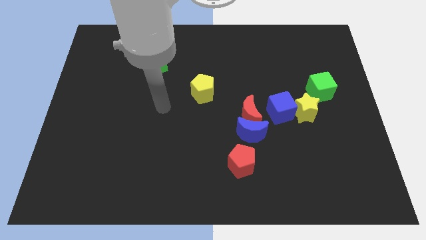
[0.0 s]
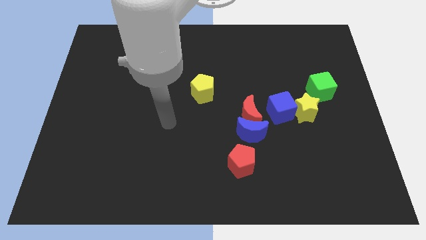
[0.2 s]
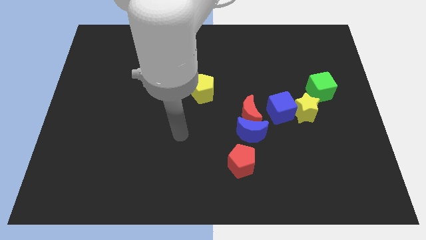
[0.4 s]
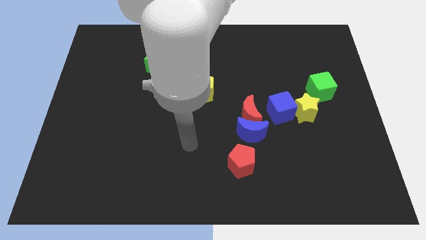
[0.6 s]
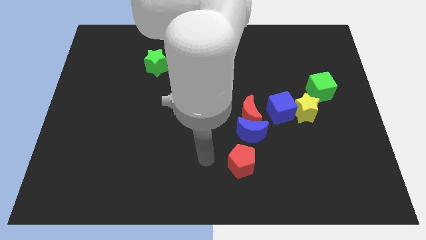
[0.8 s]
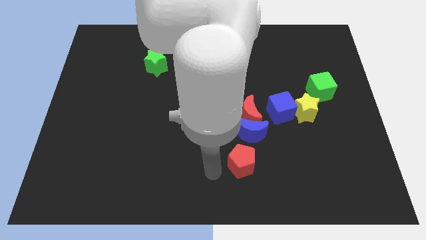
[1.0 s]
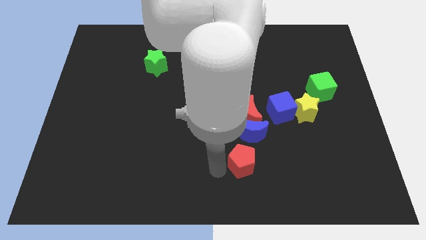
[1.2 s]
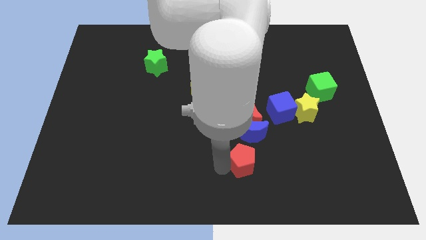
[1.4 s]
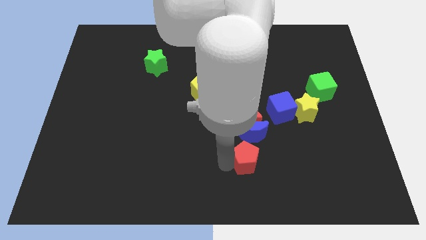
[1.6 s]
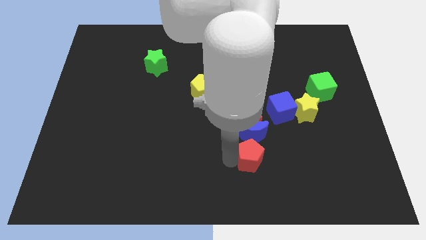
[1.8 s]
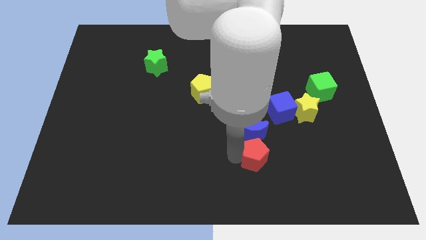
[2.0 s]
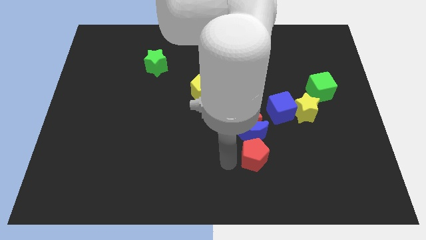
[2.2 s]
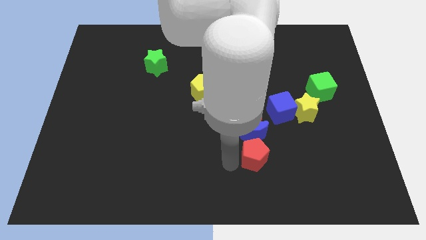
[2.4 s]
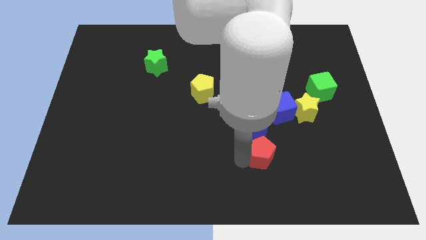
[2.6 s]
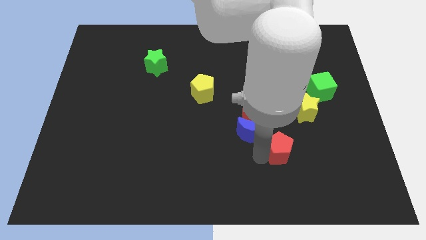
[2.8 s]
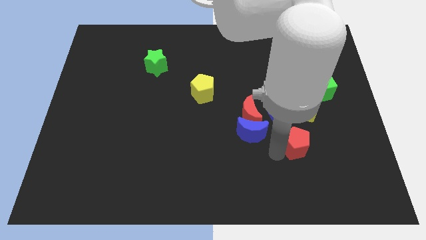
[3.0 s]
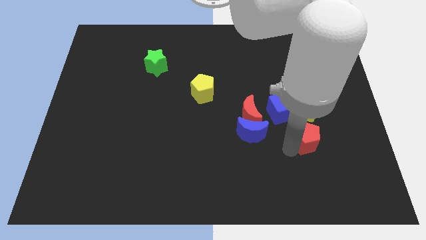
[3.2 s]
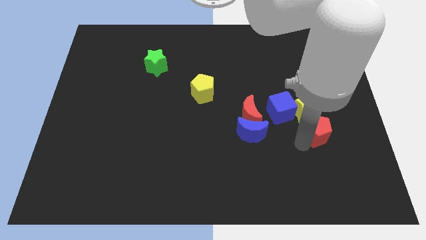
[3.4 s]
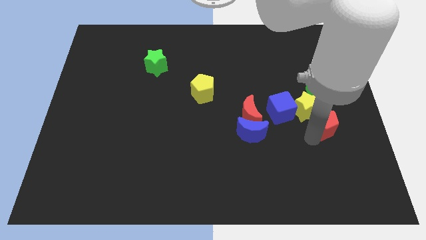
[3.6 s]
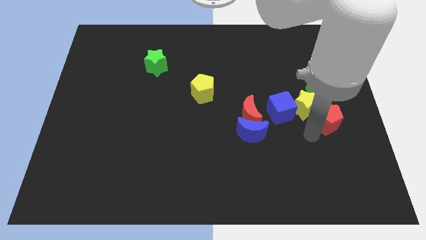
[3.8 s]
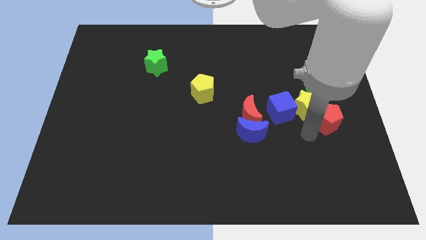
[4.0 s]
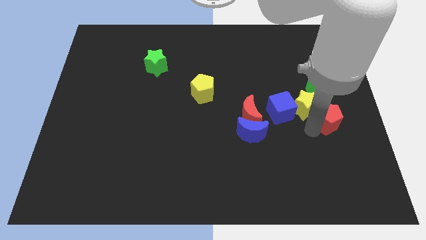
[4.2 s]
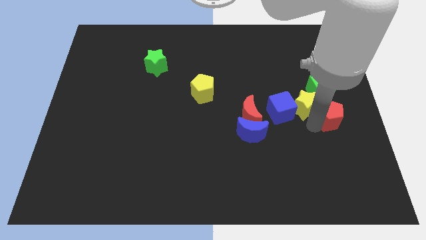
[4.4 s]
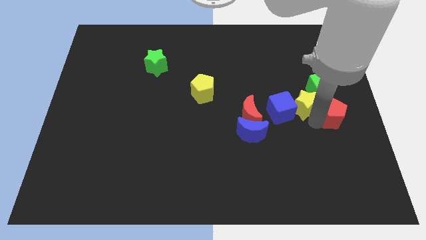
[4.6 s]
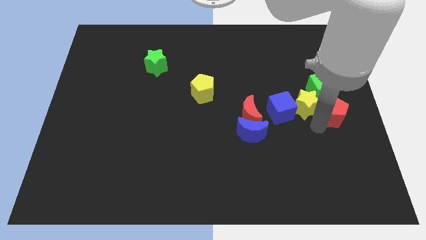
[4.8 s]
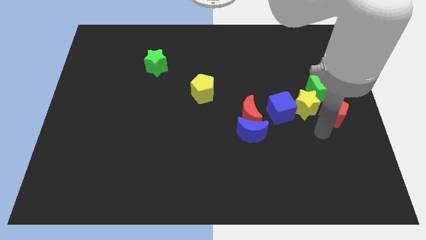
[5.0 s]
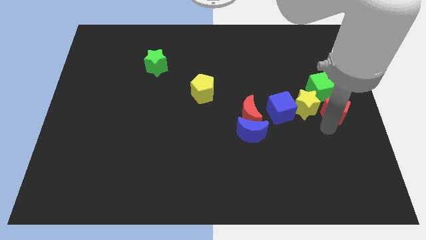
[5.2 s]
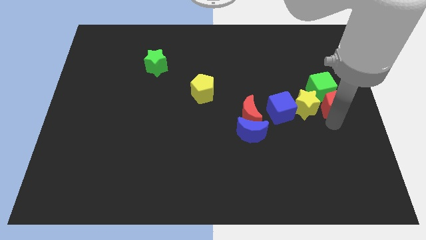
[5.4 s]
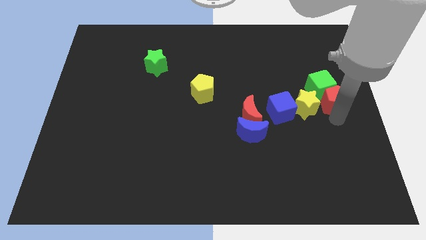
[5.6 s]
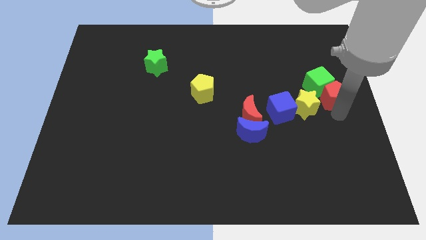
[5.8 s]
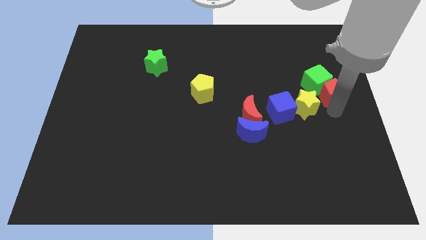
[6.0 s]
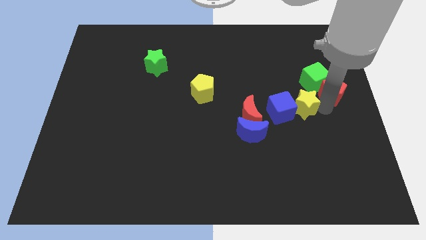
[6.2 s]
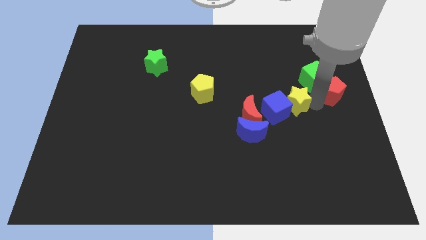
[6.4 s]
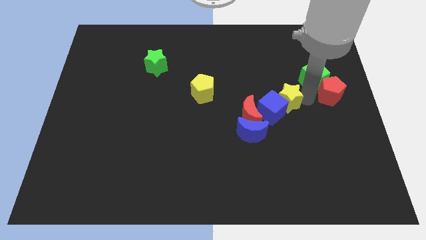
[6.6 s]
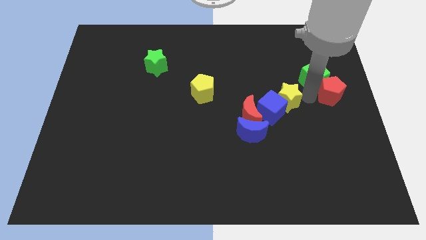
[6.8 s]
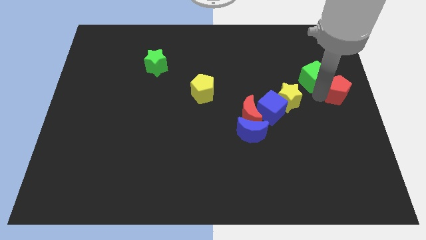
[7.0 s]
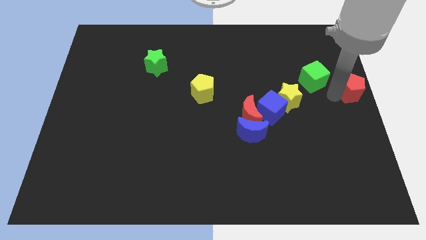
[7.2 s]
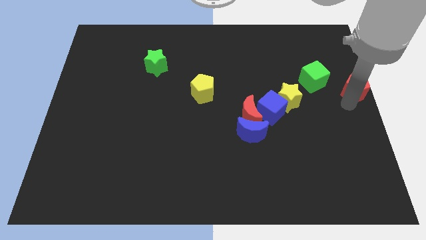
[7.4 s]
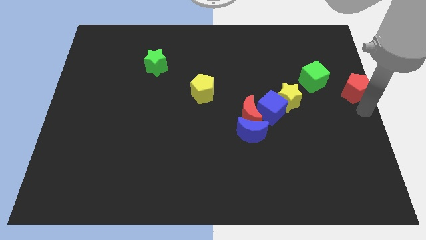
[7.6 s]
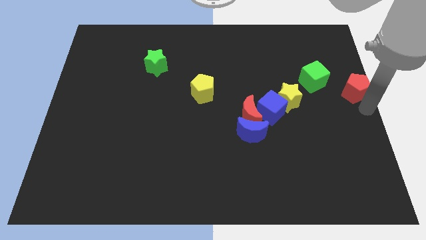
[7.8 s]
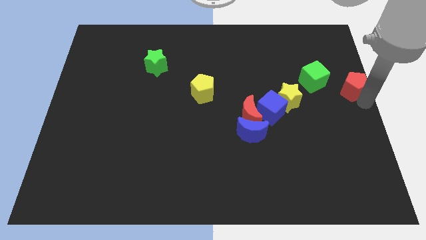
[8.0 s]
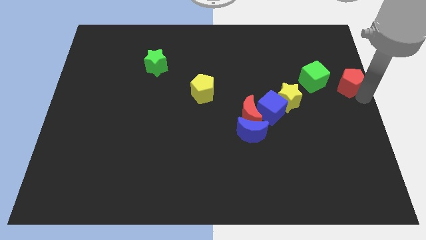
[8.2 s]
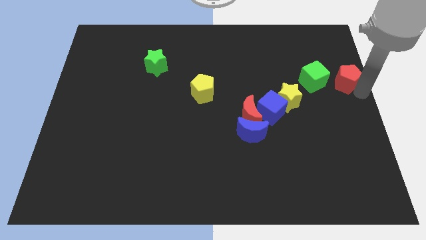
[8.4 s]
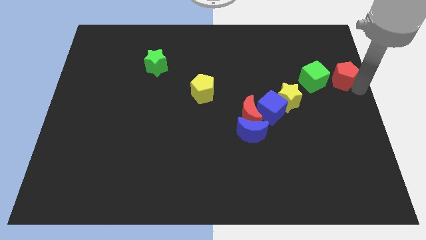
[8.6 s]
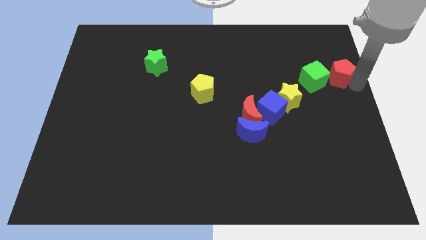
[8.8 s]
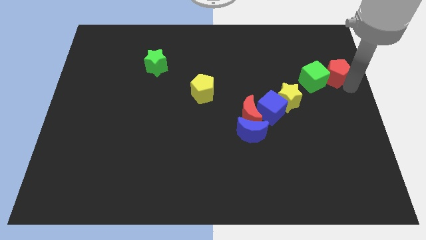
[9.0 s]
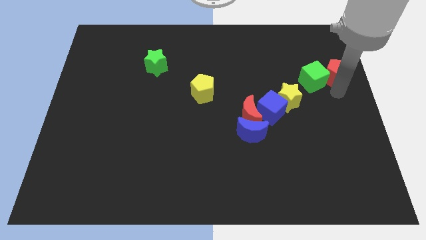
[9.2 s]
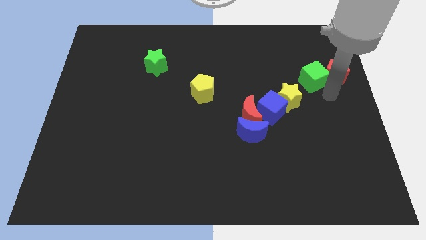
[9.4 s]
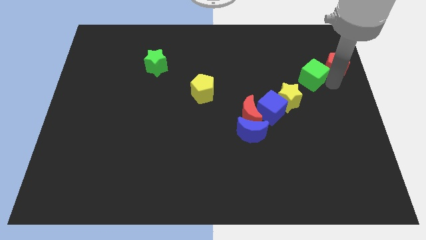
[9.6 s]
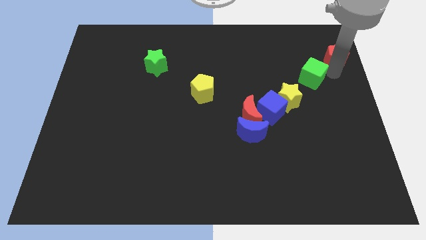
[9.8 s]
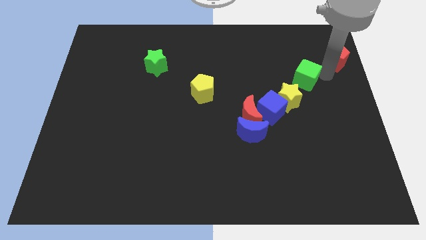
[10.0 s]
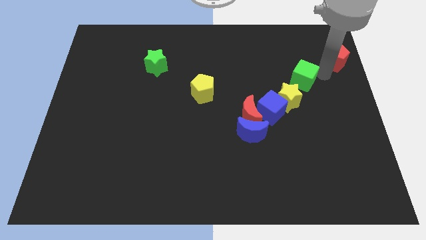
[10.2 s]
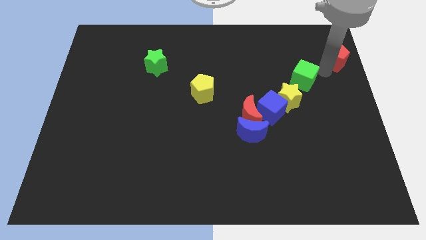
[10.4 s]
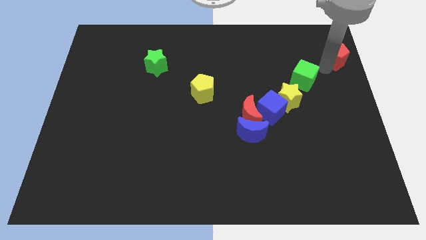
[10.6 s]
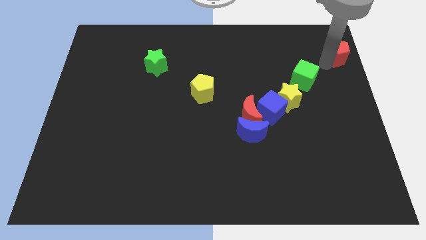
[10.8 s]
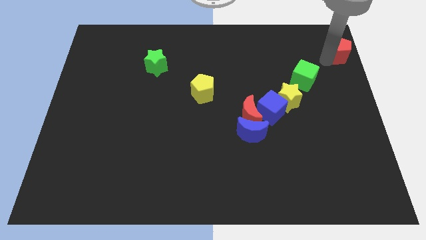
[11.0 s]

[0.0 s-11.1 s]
push the red pentagon to the top right corner

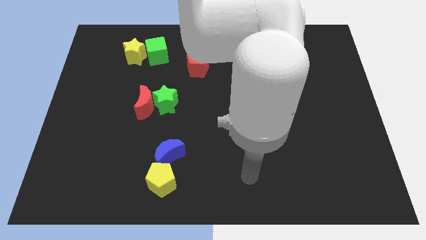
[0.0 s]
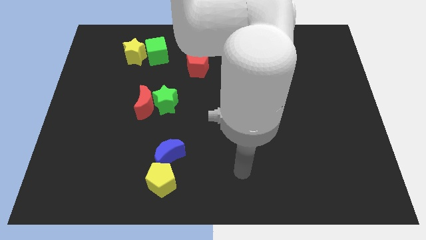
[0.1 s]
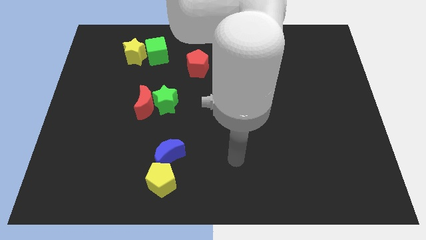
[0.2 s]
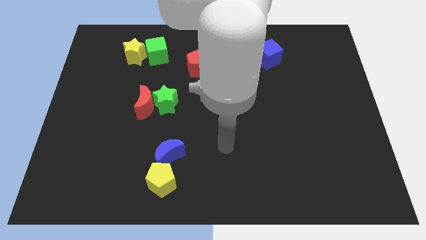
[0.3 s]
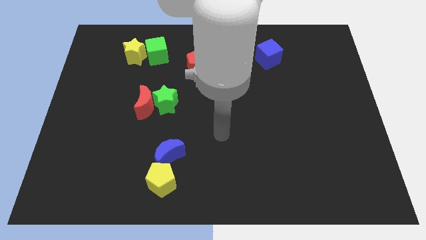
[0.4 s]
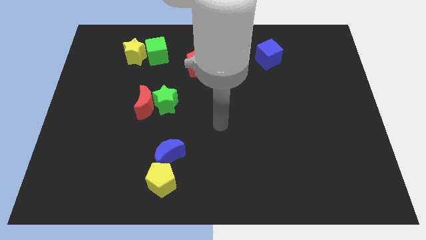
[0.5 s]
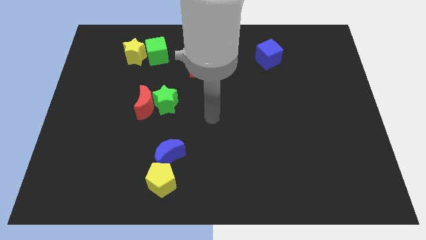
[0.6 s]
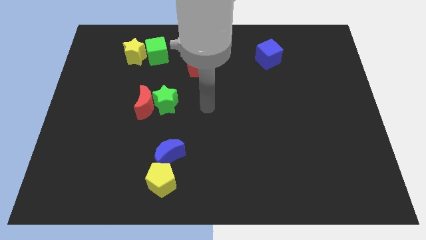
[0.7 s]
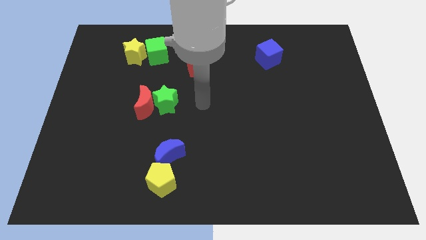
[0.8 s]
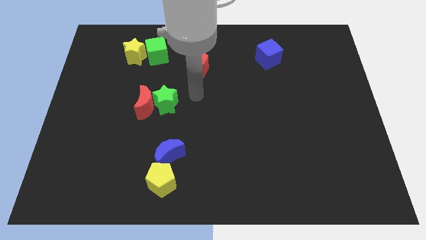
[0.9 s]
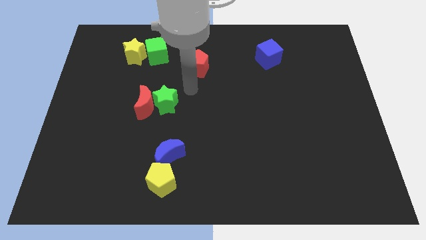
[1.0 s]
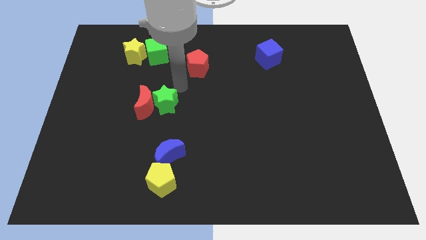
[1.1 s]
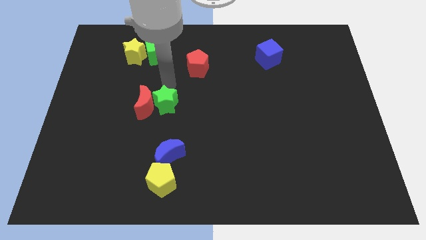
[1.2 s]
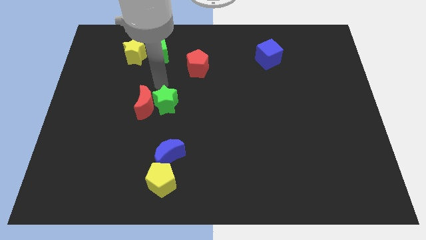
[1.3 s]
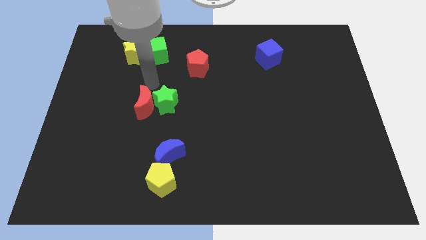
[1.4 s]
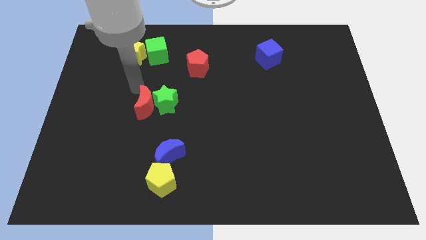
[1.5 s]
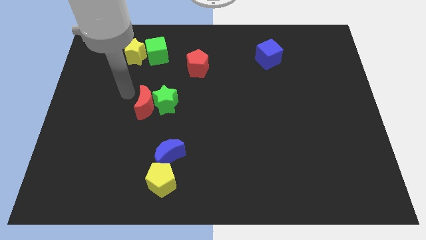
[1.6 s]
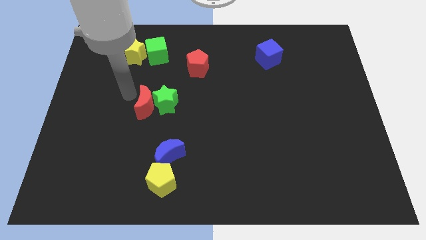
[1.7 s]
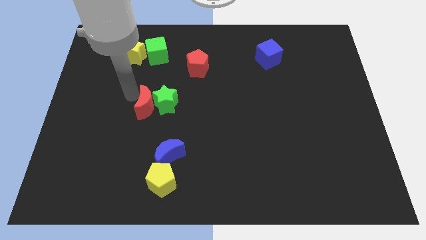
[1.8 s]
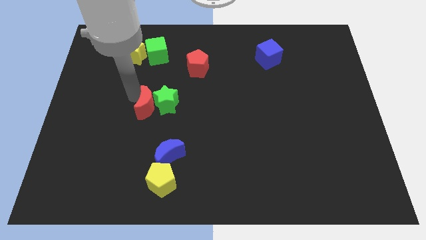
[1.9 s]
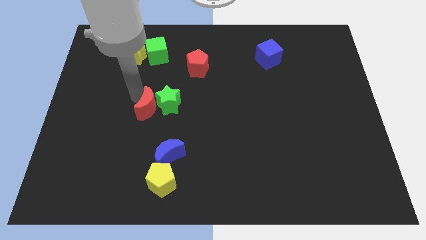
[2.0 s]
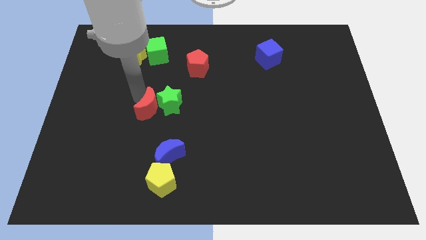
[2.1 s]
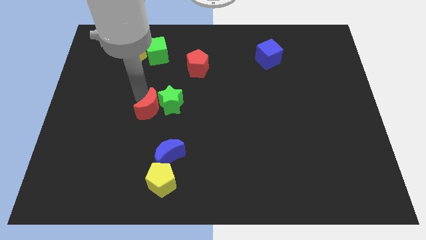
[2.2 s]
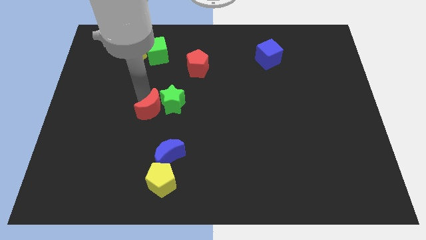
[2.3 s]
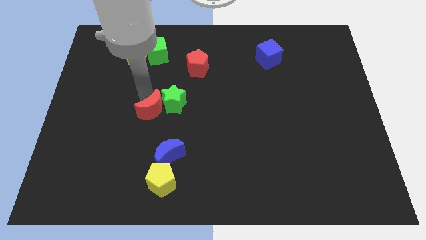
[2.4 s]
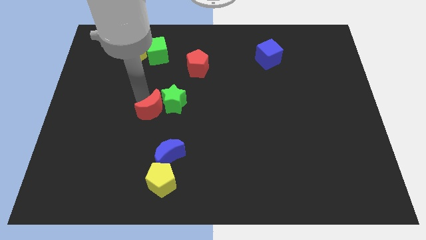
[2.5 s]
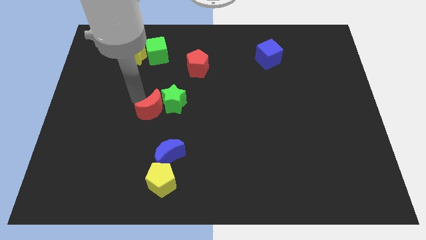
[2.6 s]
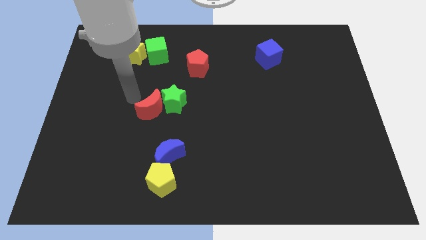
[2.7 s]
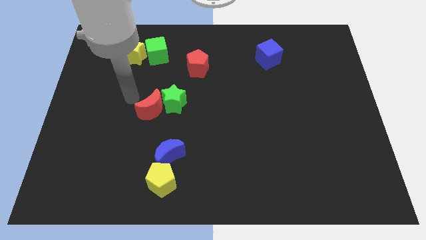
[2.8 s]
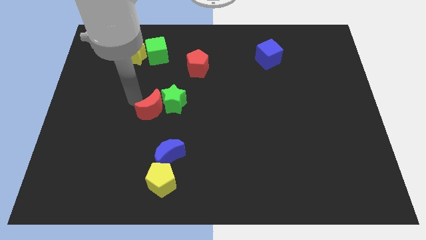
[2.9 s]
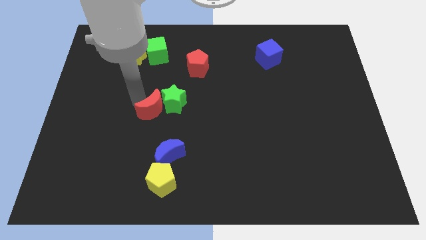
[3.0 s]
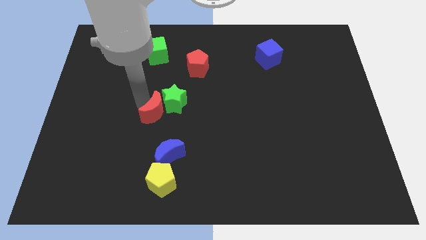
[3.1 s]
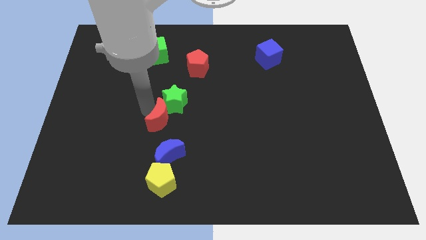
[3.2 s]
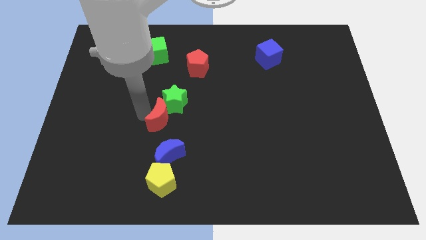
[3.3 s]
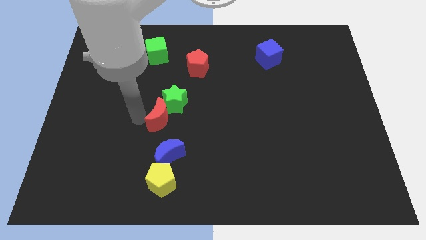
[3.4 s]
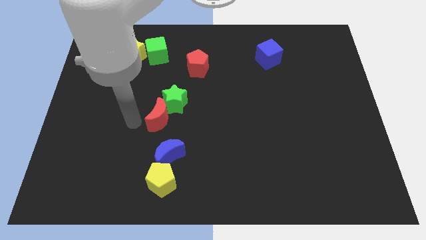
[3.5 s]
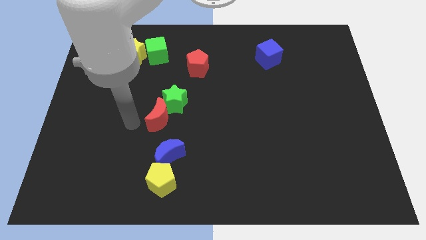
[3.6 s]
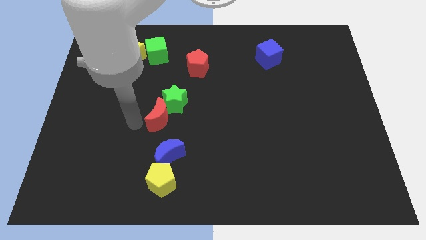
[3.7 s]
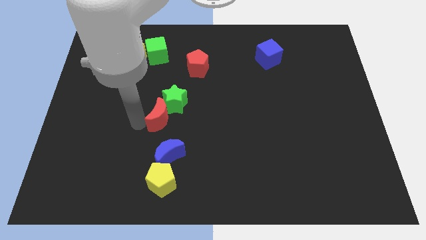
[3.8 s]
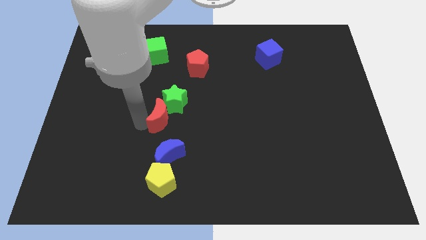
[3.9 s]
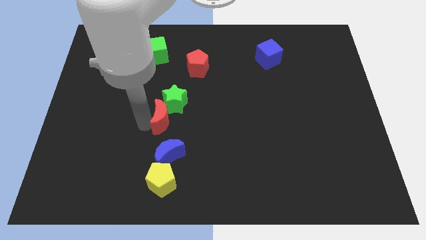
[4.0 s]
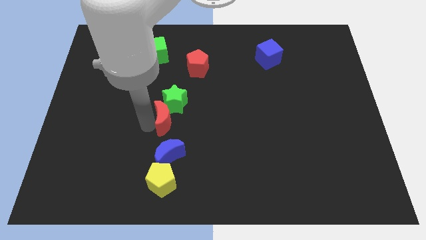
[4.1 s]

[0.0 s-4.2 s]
slide the red moon to the middle
